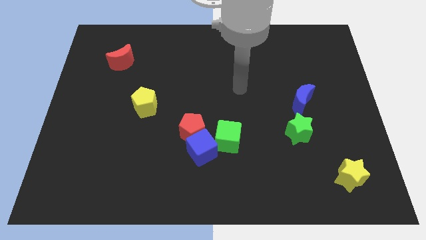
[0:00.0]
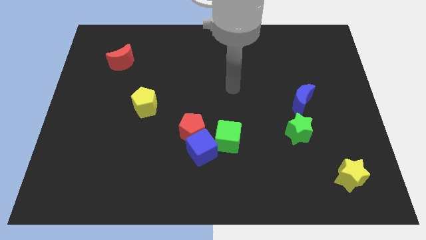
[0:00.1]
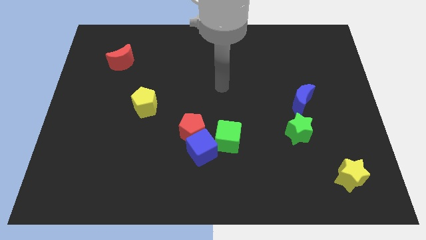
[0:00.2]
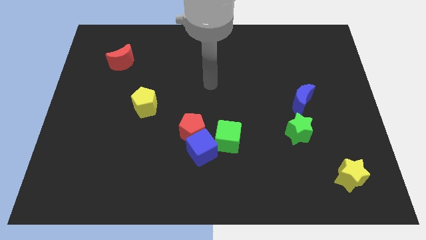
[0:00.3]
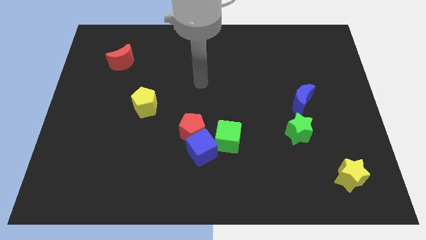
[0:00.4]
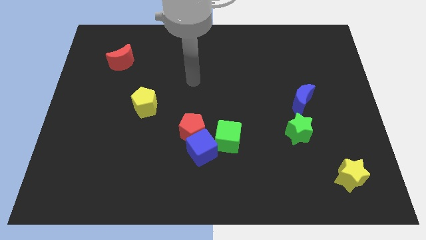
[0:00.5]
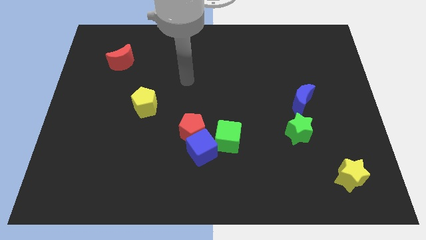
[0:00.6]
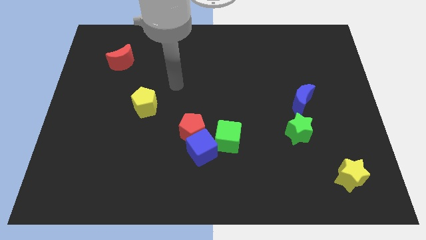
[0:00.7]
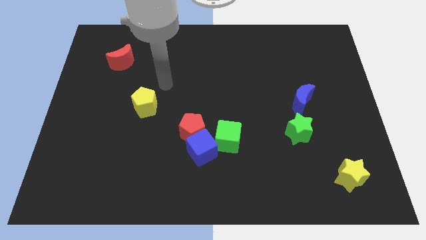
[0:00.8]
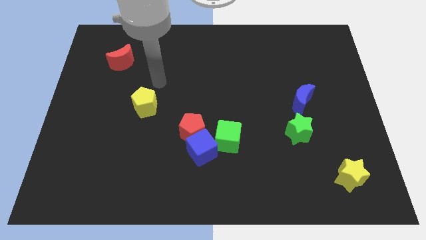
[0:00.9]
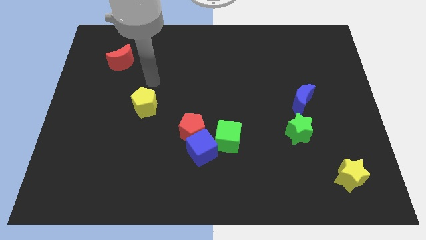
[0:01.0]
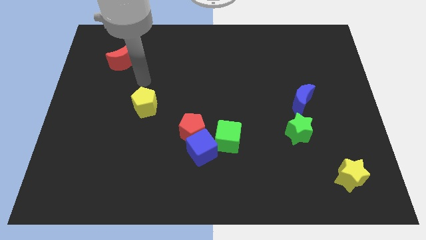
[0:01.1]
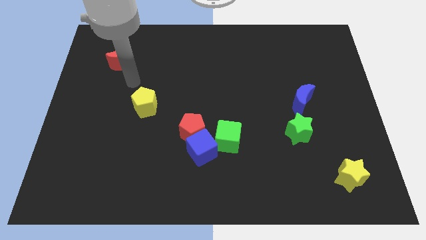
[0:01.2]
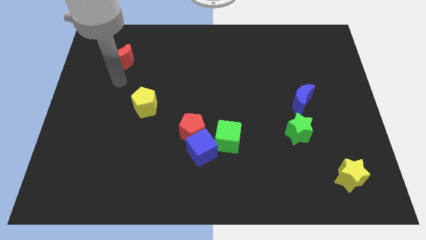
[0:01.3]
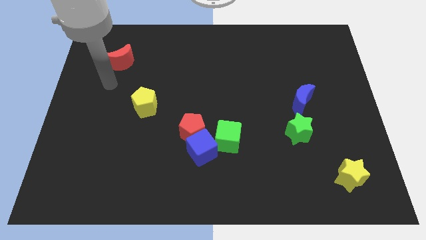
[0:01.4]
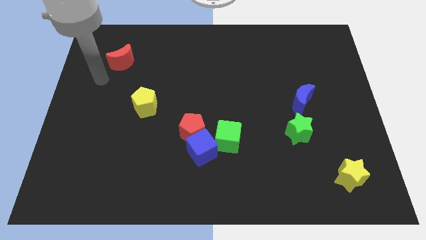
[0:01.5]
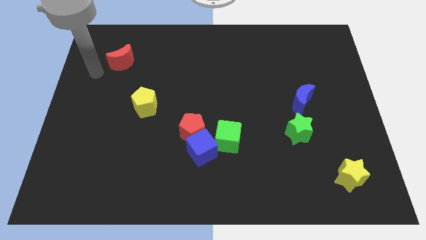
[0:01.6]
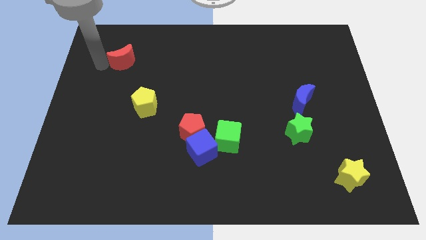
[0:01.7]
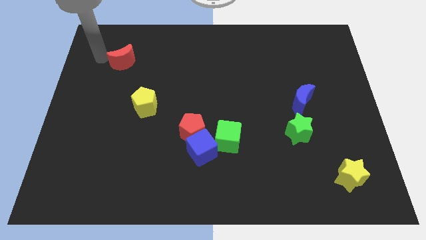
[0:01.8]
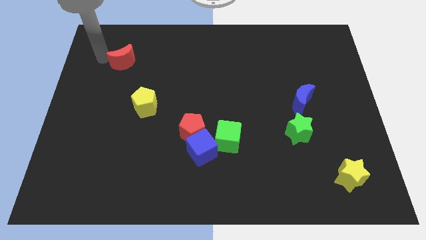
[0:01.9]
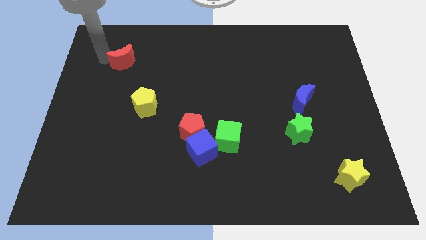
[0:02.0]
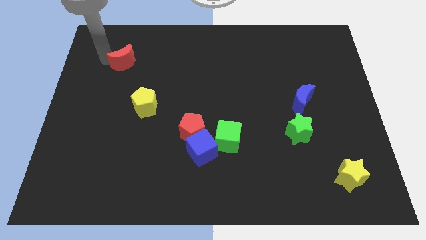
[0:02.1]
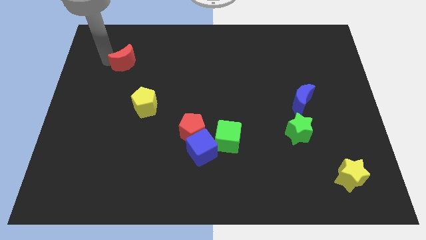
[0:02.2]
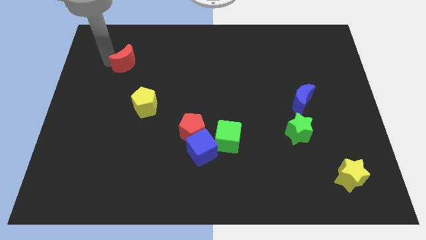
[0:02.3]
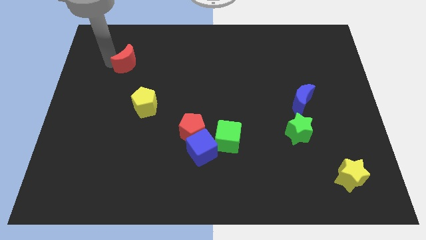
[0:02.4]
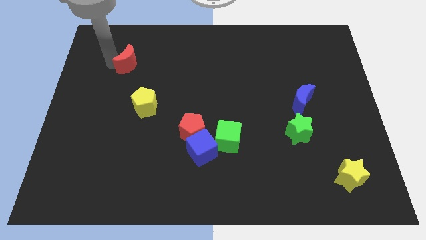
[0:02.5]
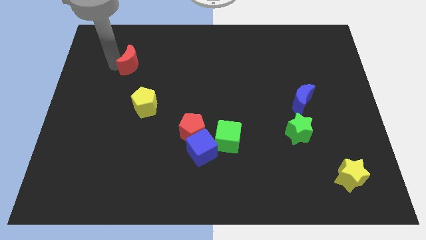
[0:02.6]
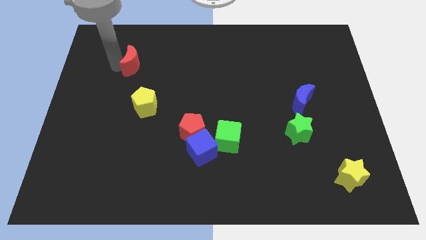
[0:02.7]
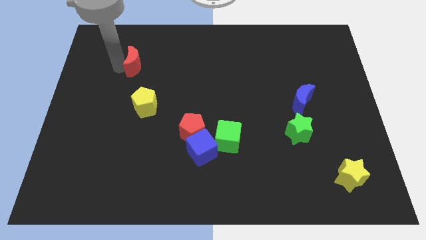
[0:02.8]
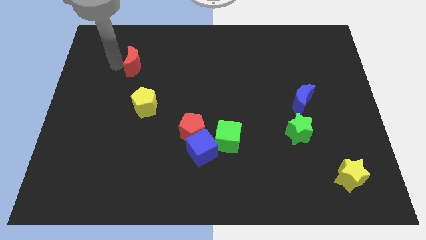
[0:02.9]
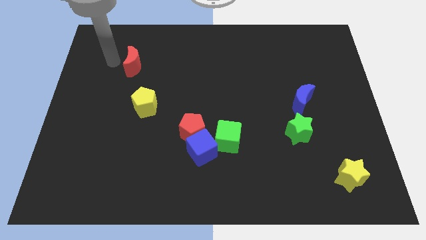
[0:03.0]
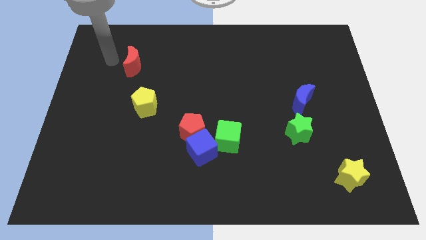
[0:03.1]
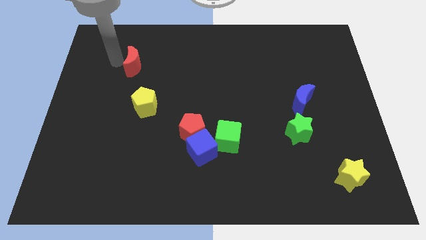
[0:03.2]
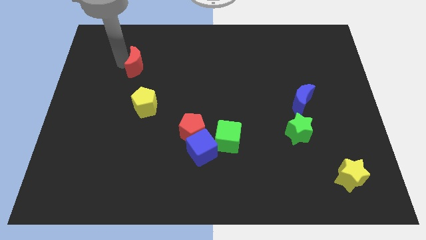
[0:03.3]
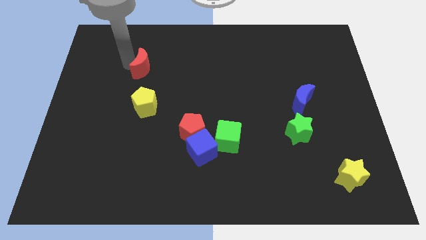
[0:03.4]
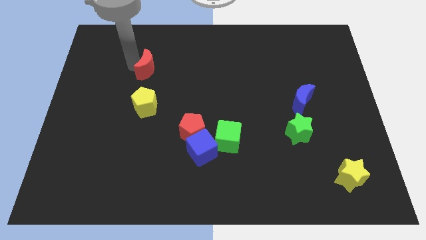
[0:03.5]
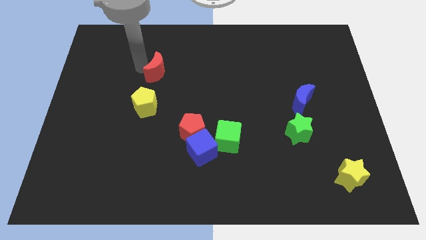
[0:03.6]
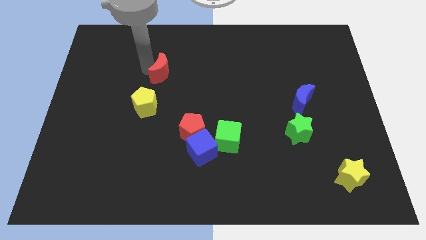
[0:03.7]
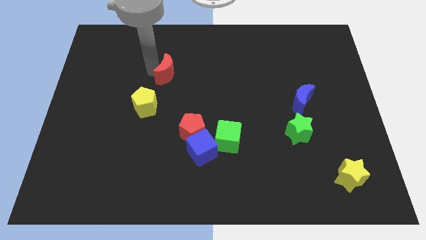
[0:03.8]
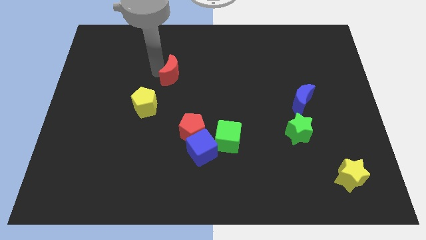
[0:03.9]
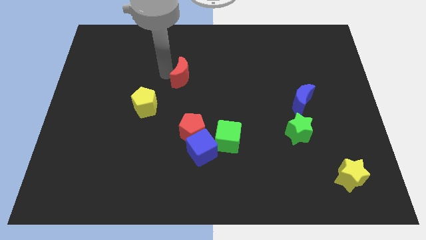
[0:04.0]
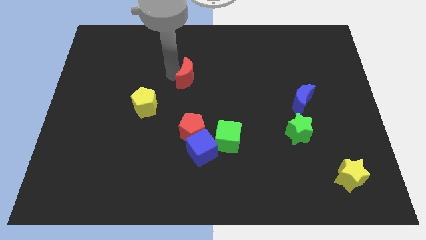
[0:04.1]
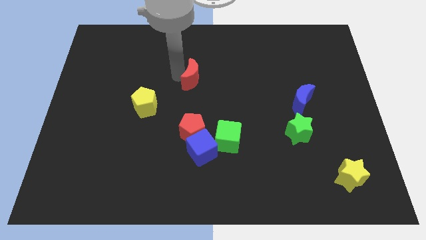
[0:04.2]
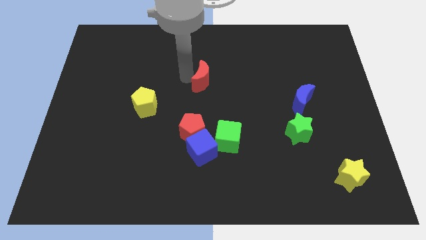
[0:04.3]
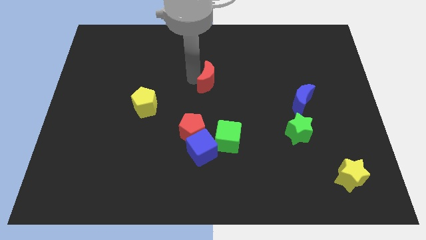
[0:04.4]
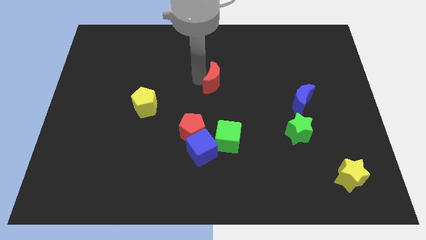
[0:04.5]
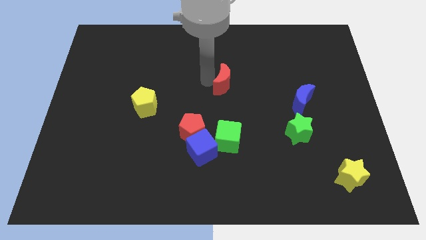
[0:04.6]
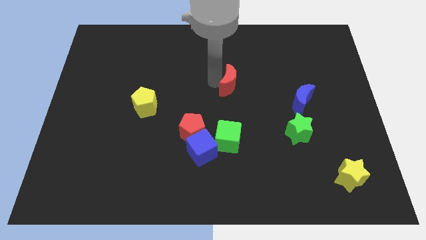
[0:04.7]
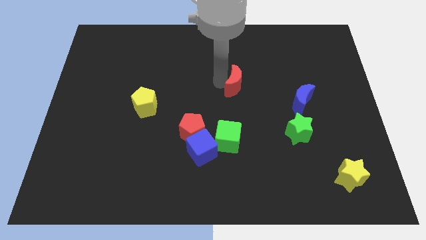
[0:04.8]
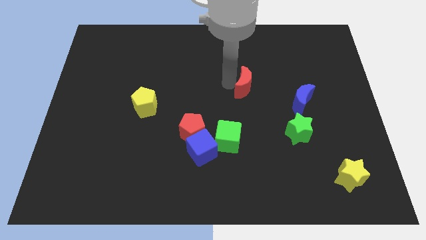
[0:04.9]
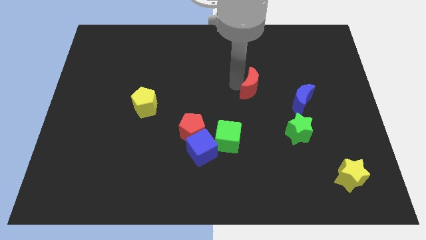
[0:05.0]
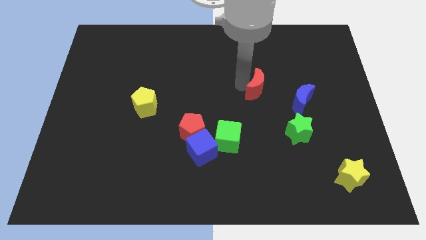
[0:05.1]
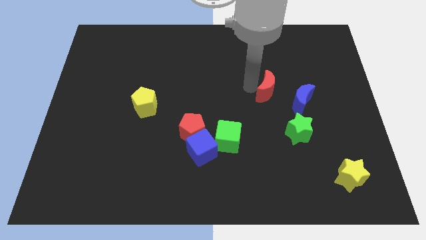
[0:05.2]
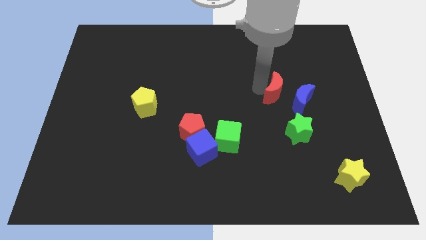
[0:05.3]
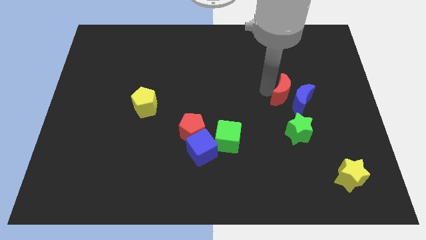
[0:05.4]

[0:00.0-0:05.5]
move the red moon towards the blue moon
